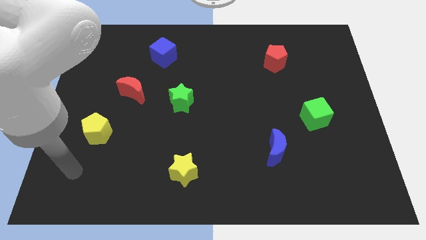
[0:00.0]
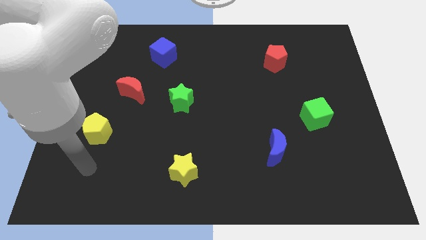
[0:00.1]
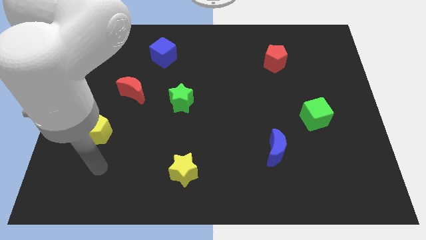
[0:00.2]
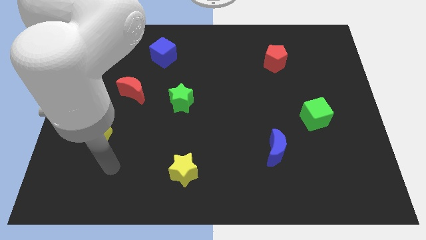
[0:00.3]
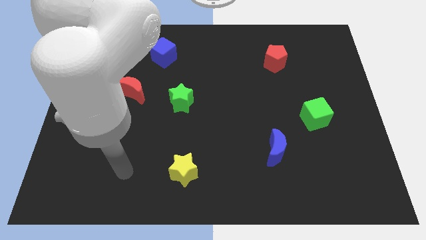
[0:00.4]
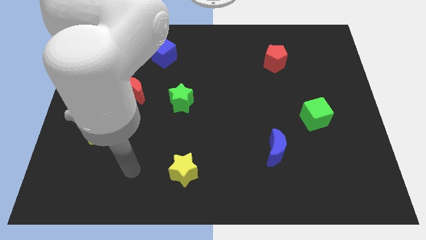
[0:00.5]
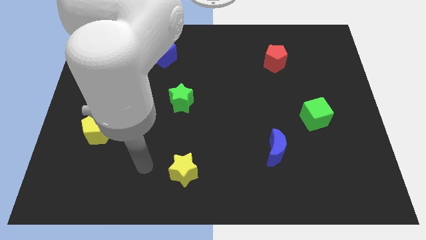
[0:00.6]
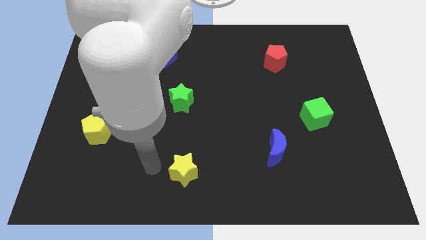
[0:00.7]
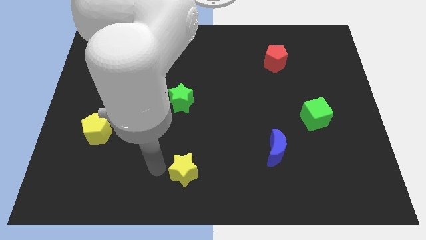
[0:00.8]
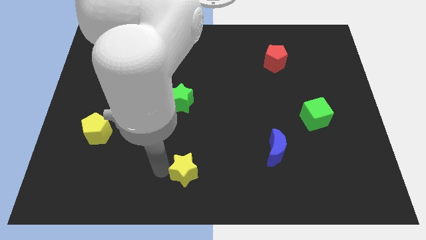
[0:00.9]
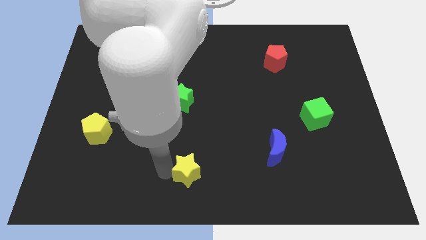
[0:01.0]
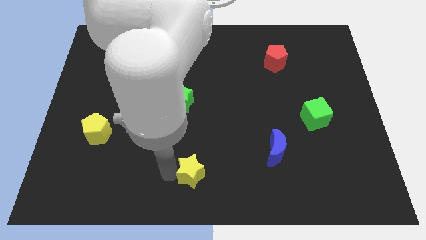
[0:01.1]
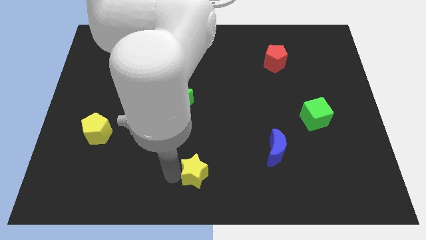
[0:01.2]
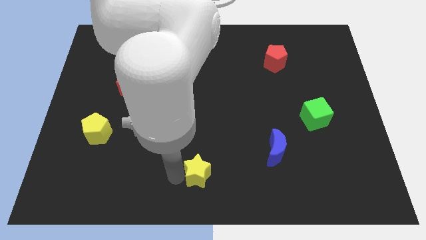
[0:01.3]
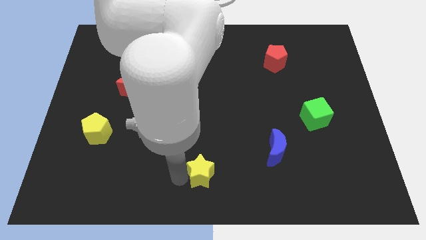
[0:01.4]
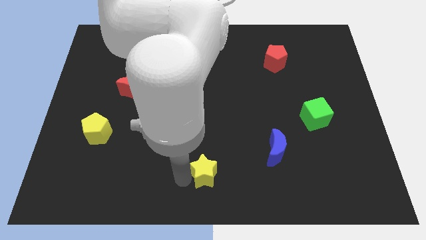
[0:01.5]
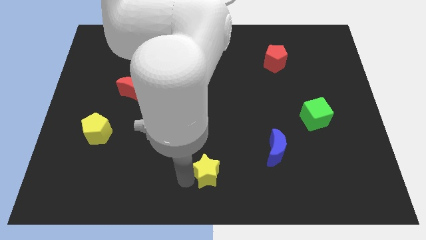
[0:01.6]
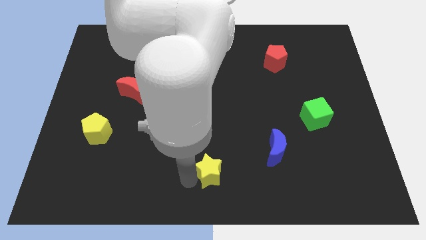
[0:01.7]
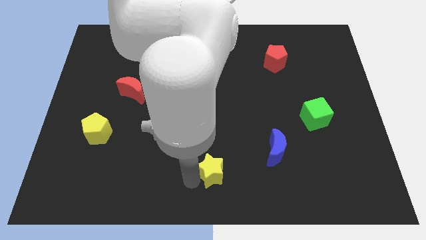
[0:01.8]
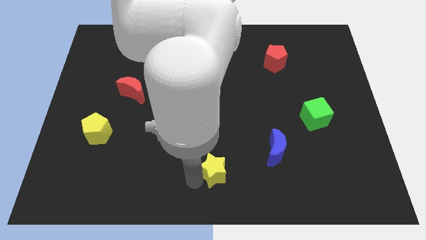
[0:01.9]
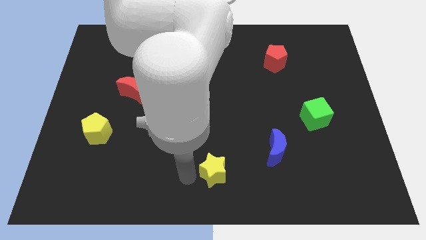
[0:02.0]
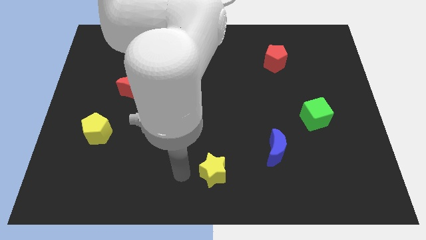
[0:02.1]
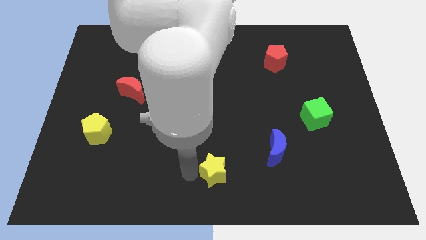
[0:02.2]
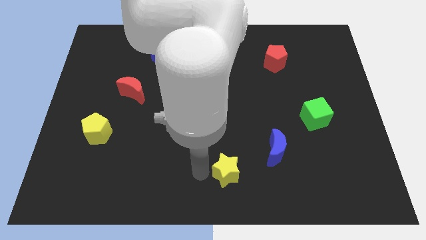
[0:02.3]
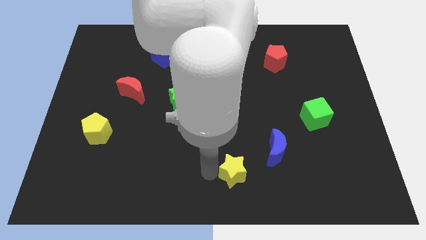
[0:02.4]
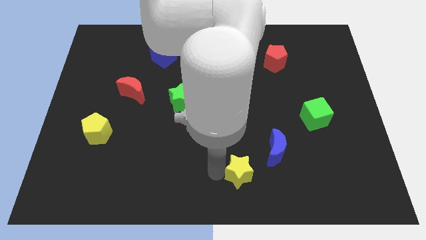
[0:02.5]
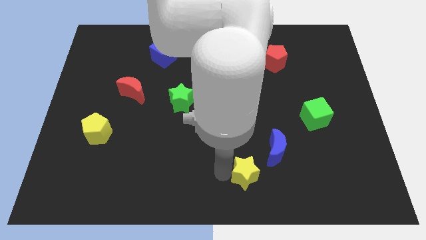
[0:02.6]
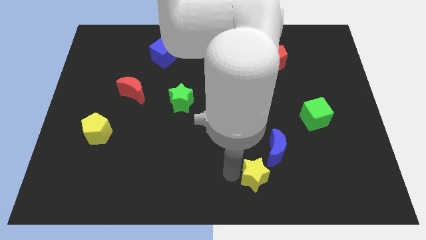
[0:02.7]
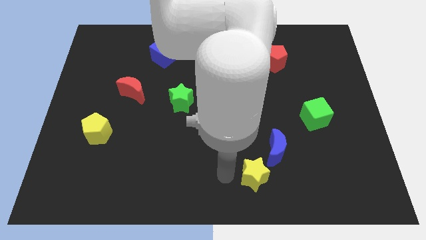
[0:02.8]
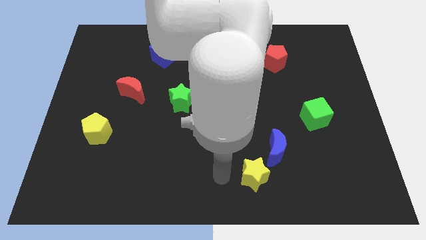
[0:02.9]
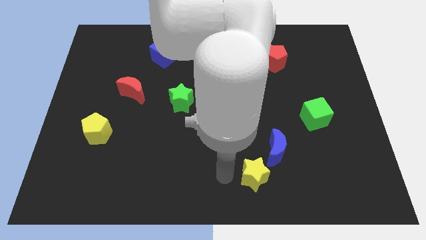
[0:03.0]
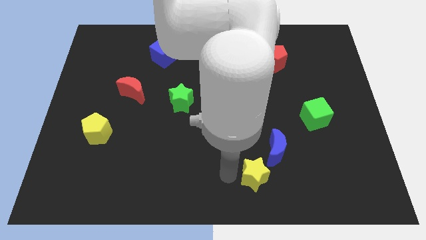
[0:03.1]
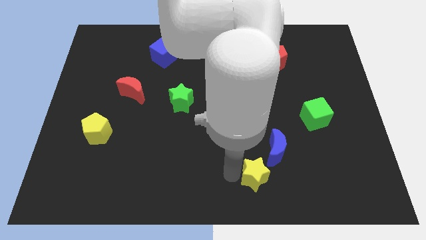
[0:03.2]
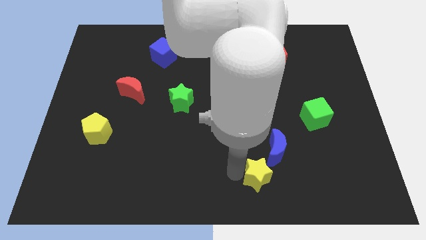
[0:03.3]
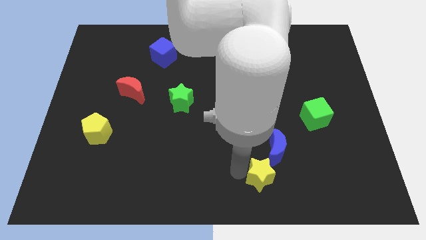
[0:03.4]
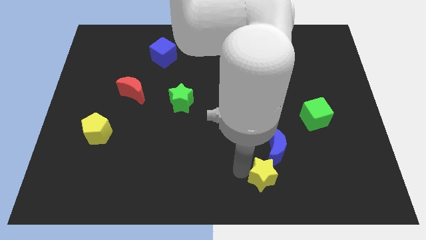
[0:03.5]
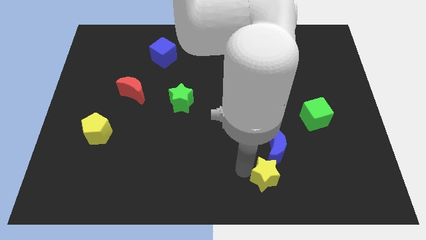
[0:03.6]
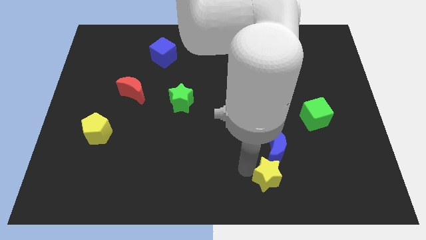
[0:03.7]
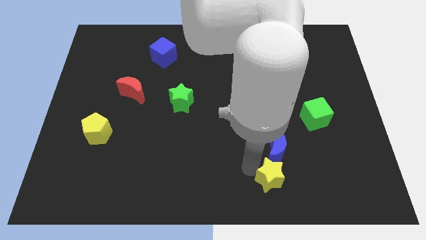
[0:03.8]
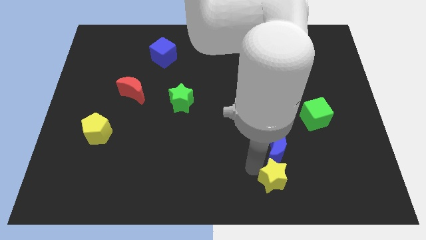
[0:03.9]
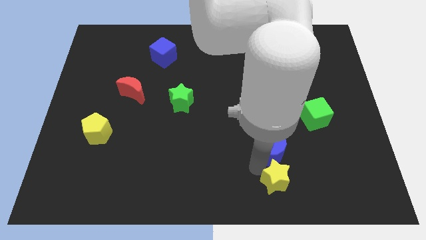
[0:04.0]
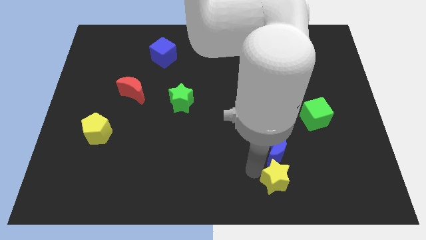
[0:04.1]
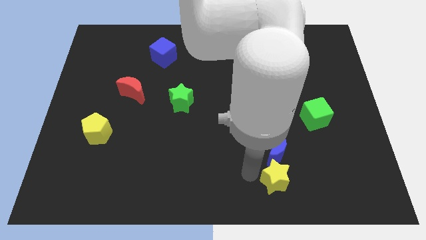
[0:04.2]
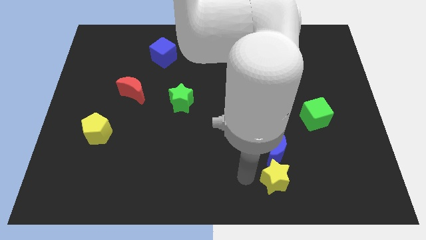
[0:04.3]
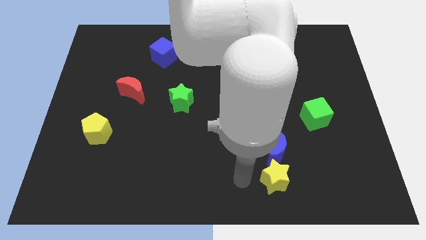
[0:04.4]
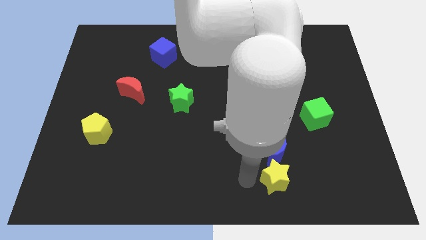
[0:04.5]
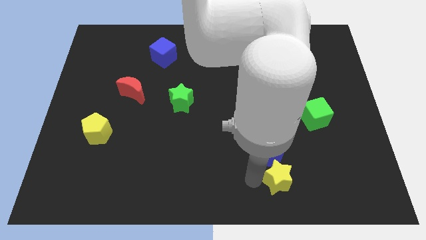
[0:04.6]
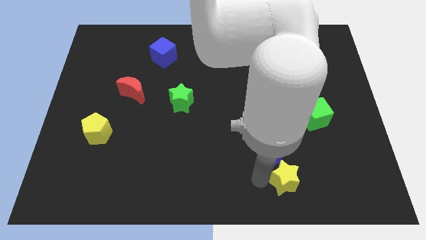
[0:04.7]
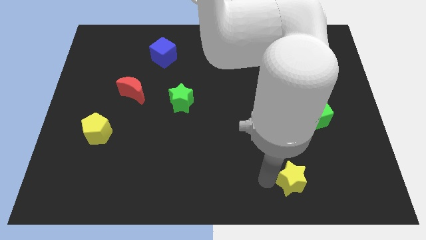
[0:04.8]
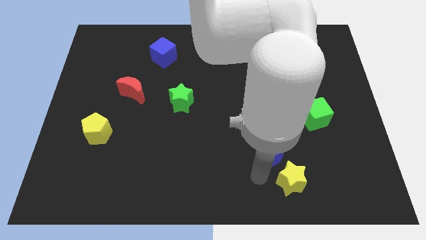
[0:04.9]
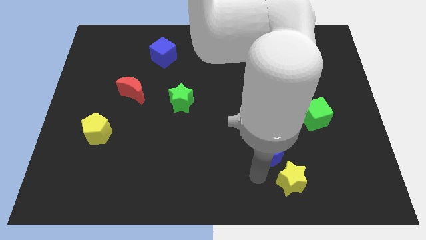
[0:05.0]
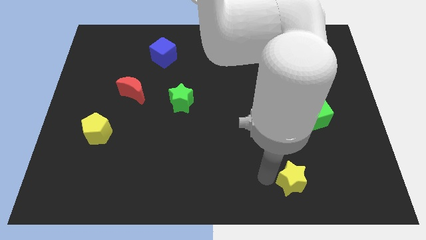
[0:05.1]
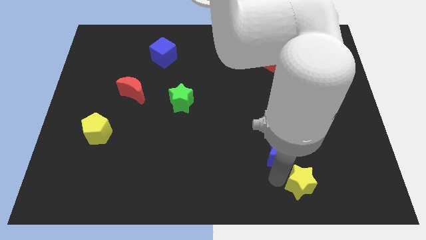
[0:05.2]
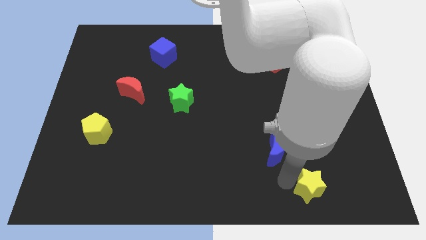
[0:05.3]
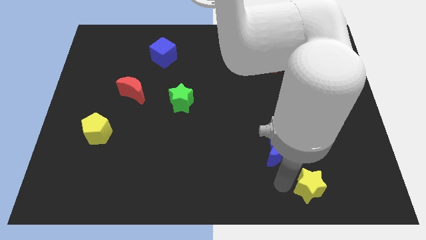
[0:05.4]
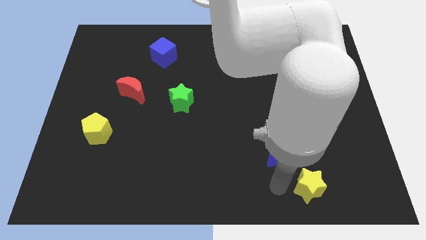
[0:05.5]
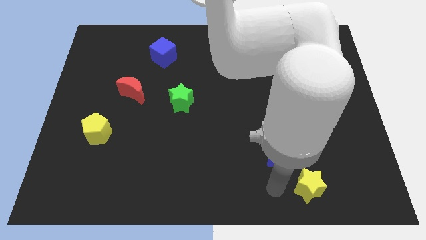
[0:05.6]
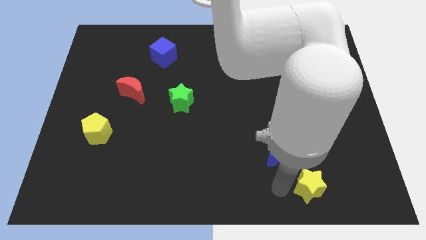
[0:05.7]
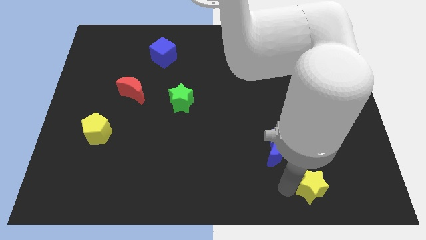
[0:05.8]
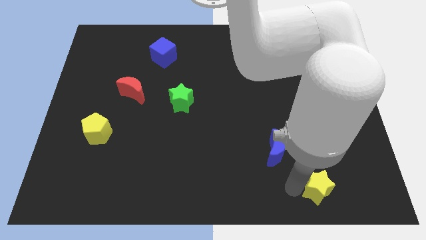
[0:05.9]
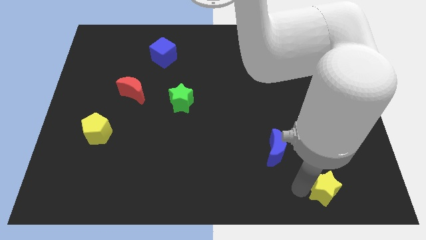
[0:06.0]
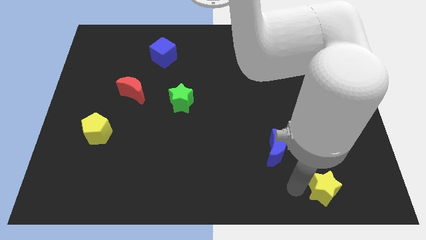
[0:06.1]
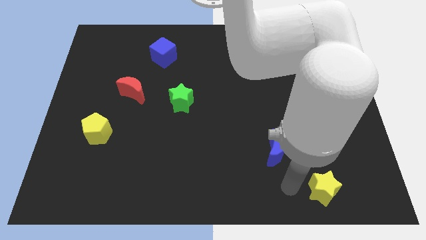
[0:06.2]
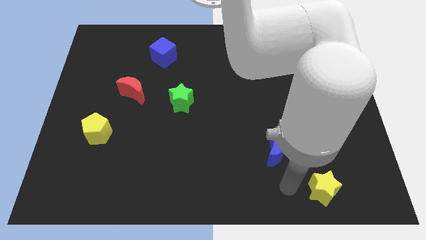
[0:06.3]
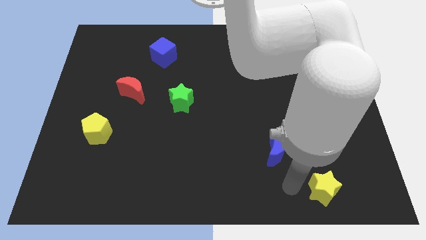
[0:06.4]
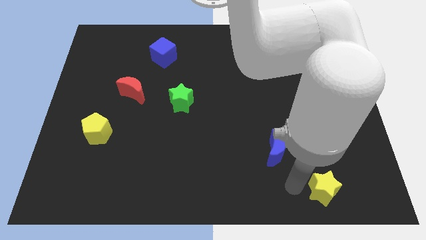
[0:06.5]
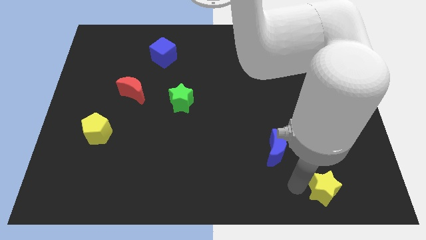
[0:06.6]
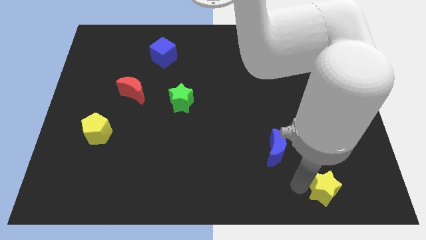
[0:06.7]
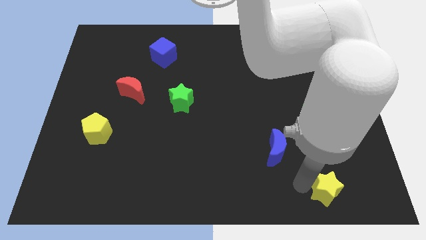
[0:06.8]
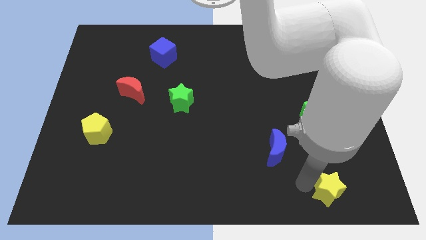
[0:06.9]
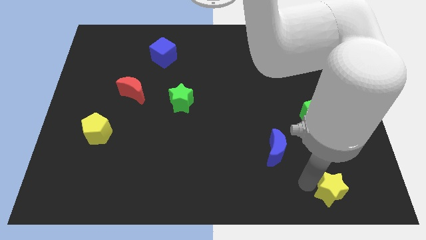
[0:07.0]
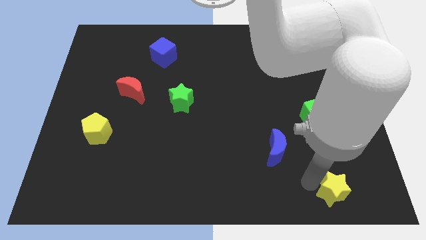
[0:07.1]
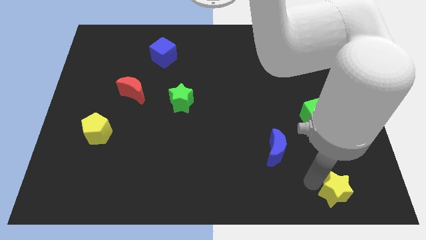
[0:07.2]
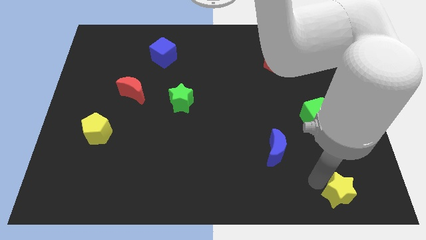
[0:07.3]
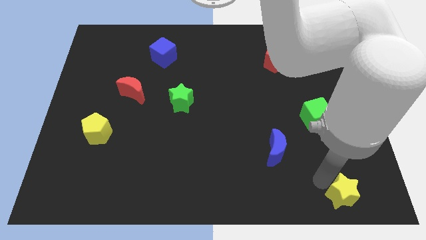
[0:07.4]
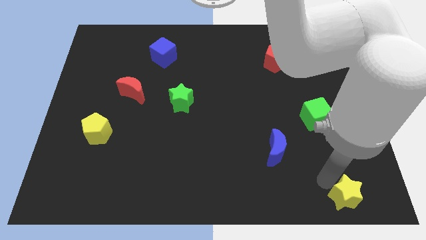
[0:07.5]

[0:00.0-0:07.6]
move the yellow star to the bottom right of the board

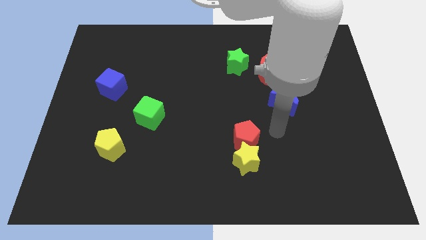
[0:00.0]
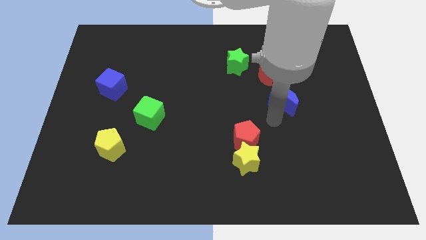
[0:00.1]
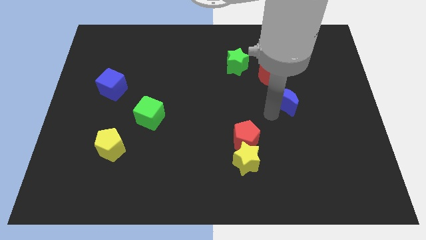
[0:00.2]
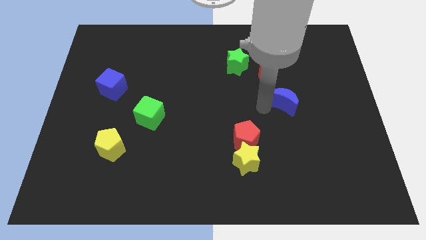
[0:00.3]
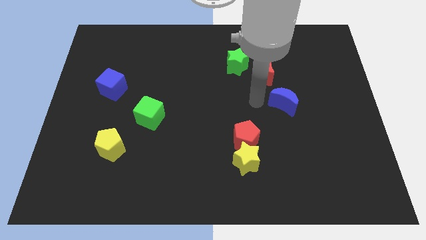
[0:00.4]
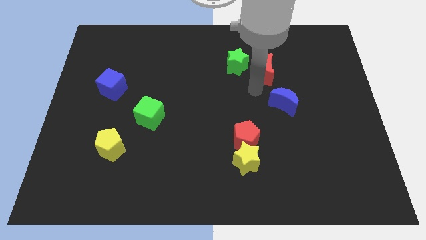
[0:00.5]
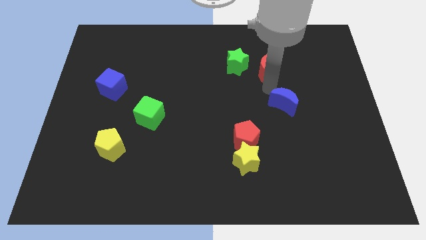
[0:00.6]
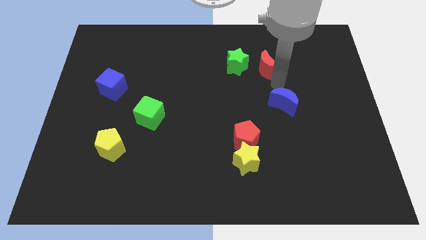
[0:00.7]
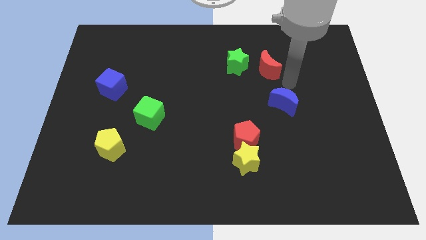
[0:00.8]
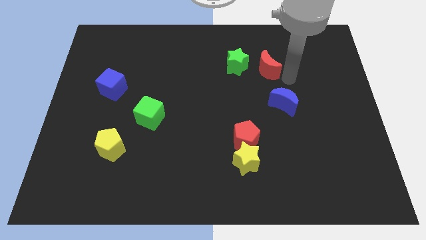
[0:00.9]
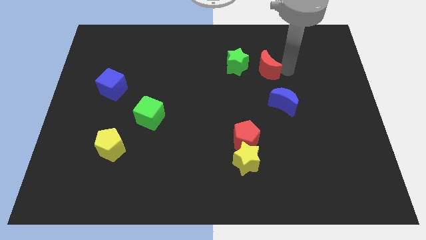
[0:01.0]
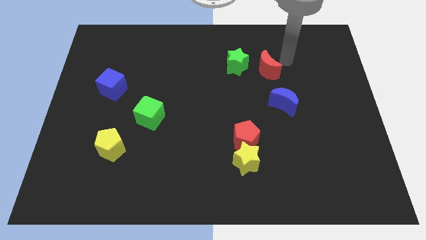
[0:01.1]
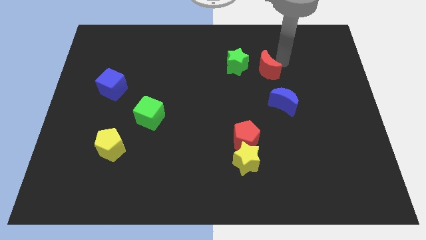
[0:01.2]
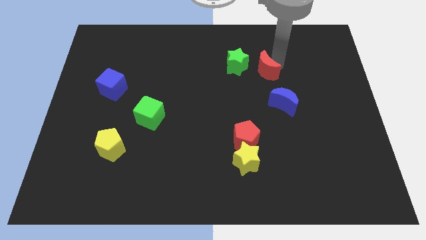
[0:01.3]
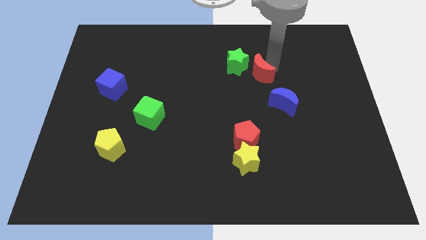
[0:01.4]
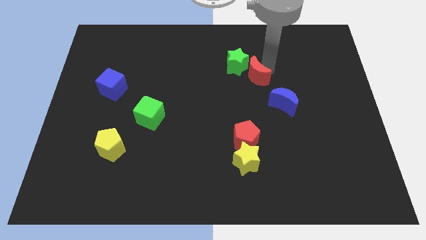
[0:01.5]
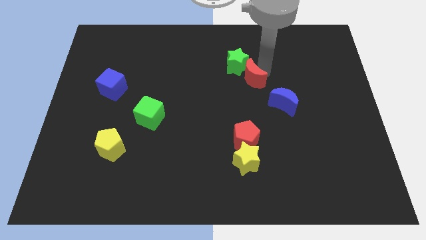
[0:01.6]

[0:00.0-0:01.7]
move the red moon to the middle of the board
